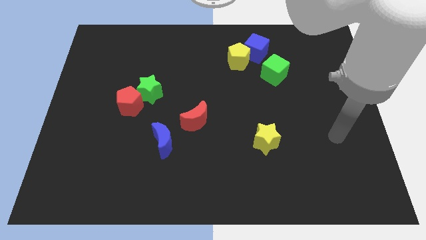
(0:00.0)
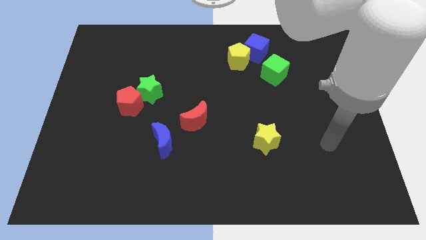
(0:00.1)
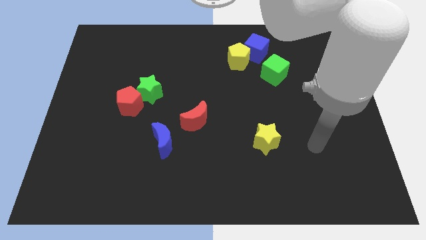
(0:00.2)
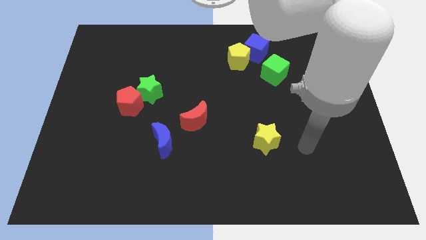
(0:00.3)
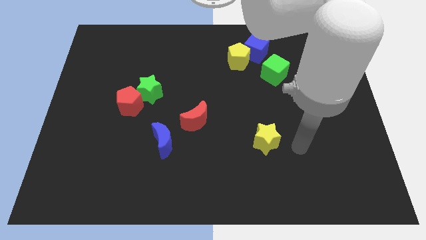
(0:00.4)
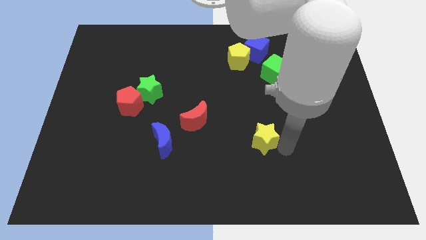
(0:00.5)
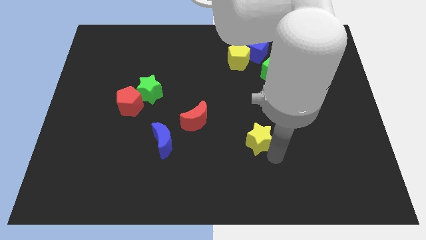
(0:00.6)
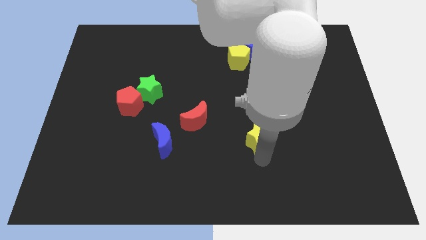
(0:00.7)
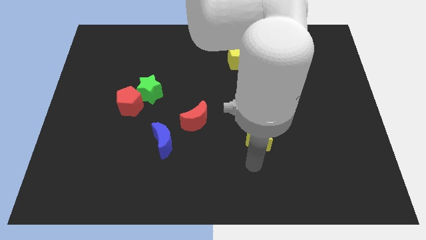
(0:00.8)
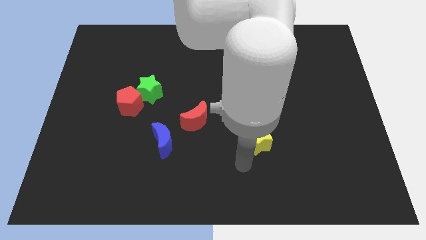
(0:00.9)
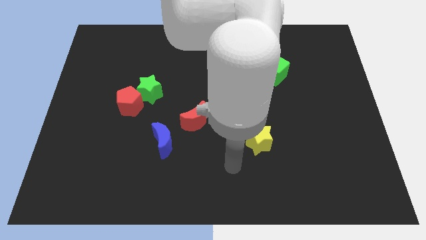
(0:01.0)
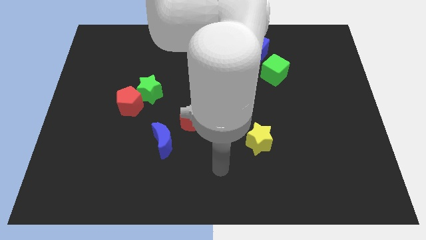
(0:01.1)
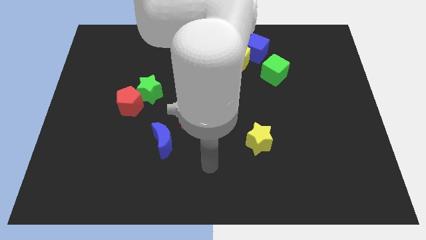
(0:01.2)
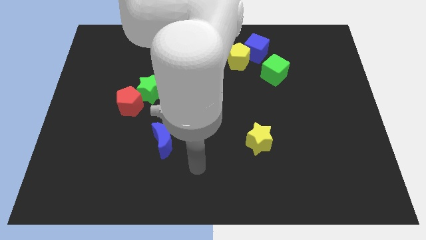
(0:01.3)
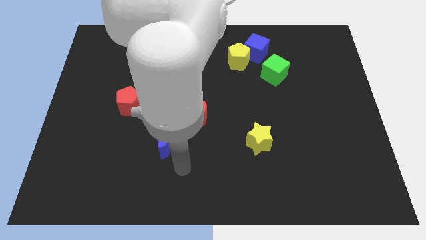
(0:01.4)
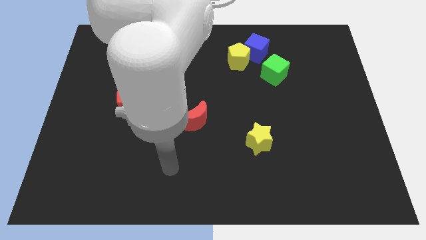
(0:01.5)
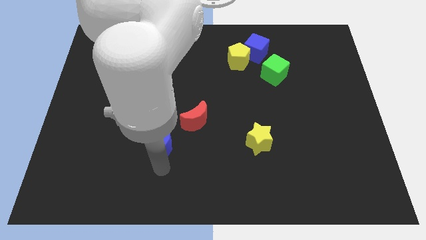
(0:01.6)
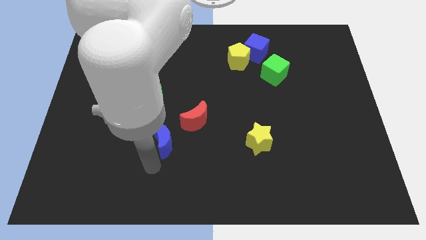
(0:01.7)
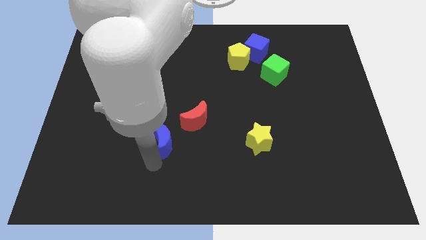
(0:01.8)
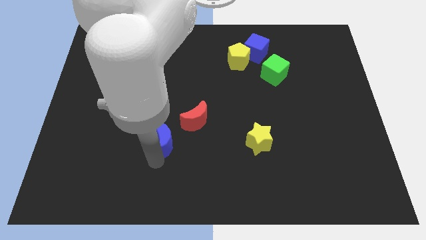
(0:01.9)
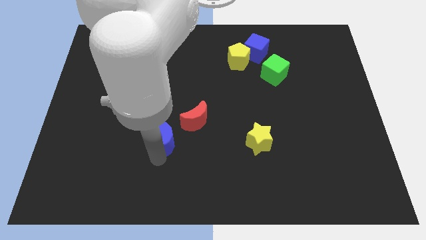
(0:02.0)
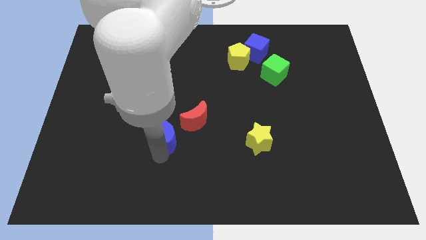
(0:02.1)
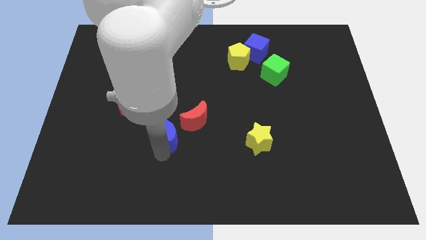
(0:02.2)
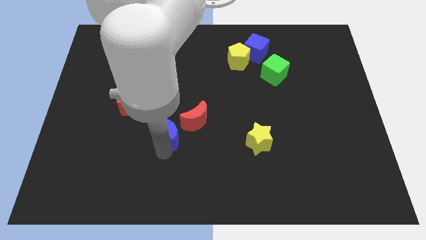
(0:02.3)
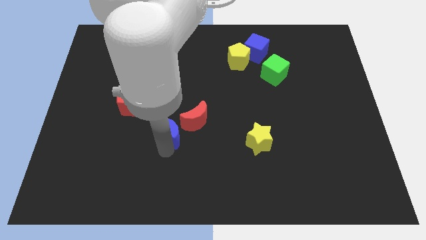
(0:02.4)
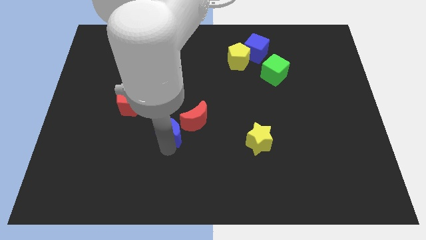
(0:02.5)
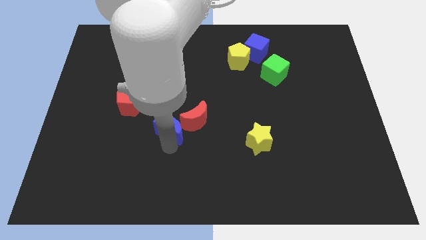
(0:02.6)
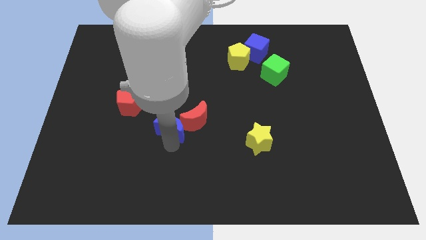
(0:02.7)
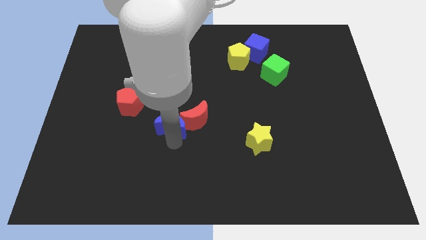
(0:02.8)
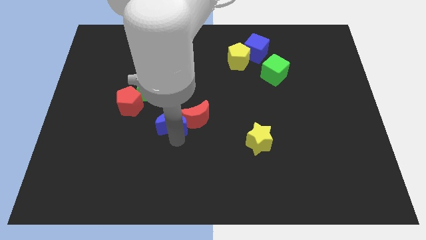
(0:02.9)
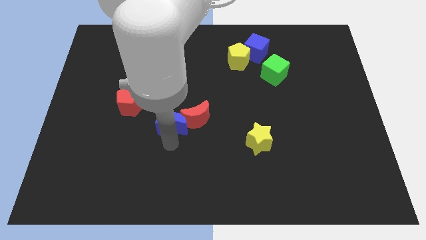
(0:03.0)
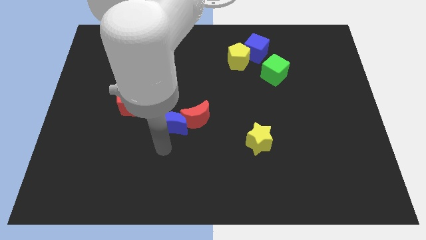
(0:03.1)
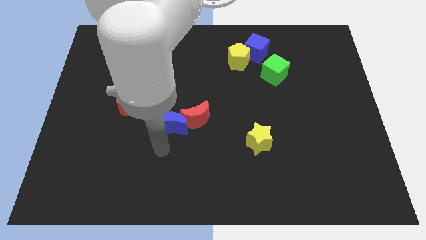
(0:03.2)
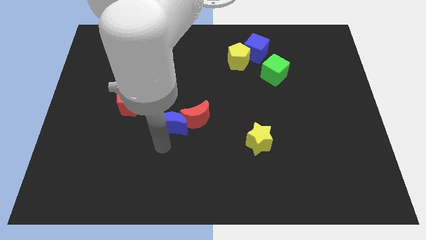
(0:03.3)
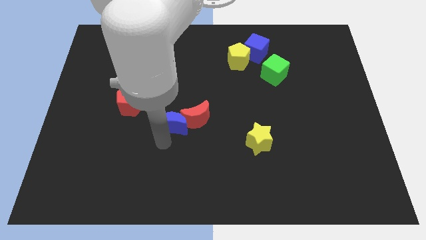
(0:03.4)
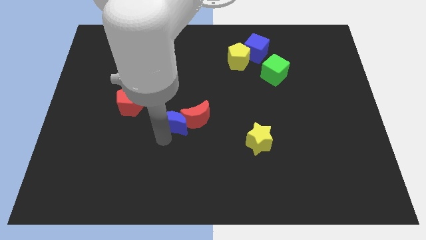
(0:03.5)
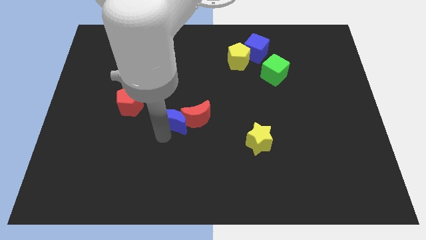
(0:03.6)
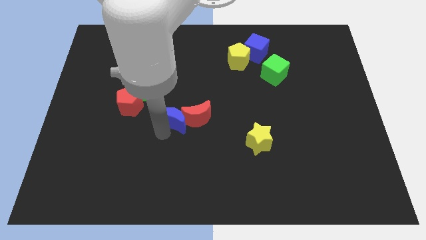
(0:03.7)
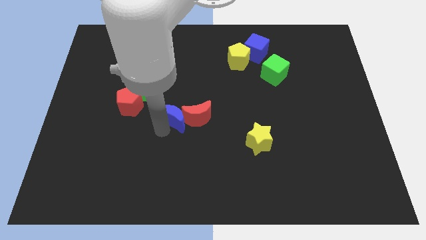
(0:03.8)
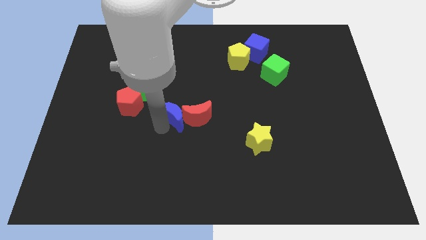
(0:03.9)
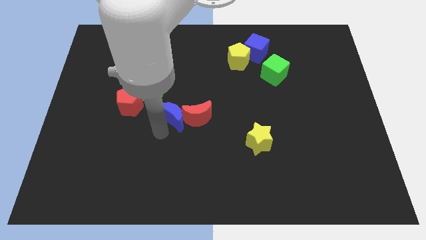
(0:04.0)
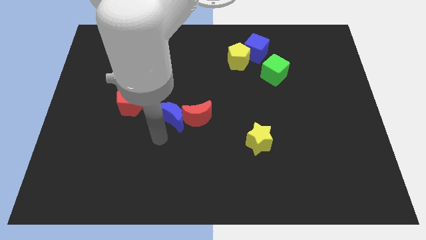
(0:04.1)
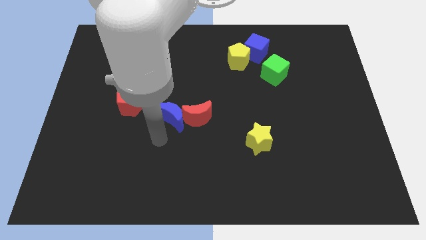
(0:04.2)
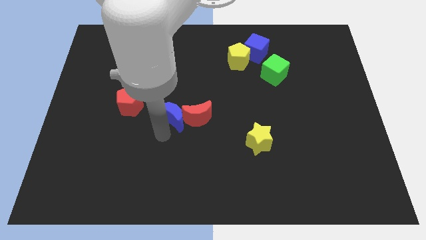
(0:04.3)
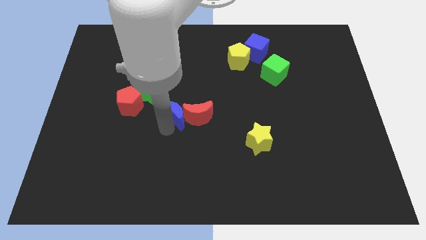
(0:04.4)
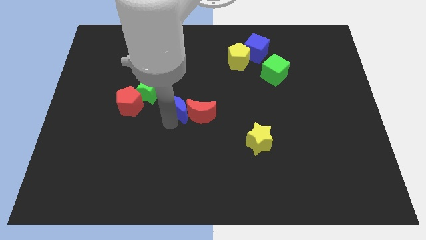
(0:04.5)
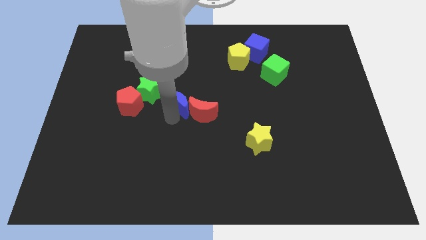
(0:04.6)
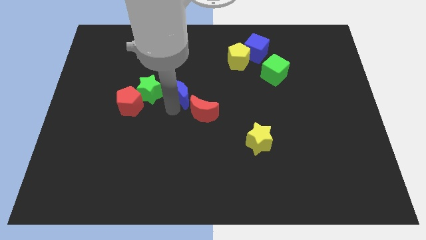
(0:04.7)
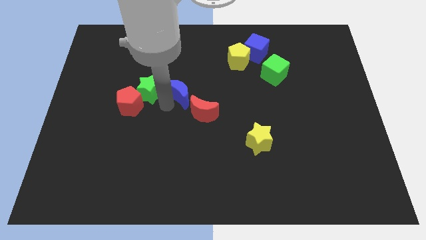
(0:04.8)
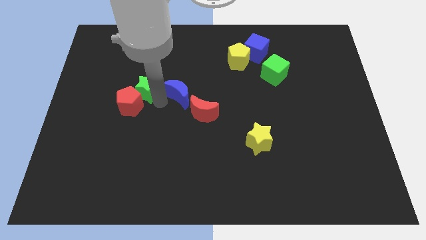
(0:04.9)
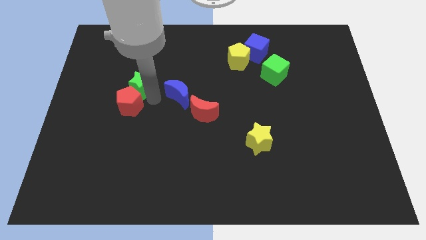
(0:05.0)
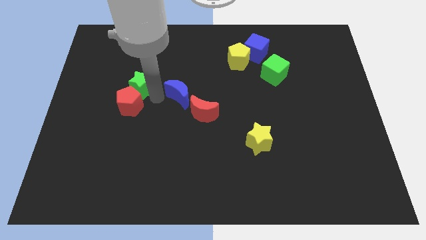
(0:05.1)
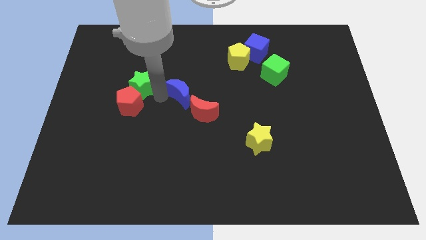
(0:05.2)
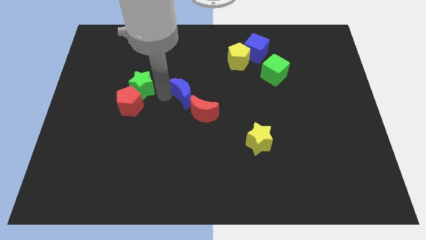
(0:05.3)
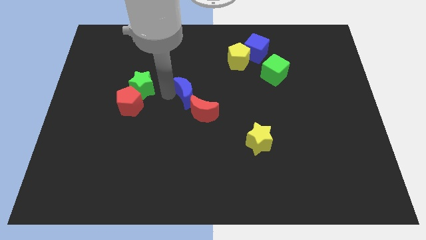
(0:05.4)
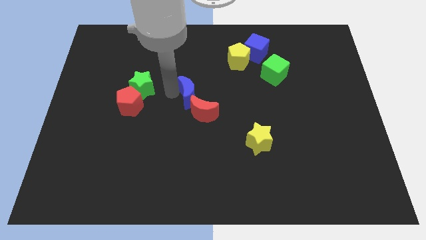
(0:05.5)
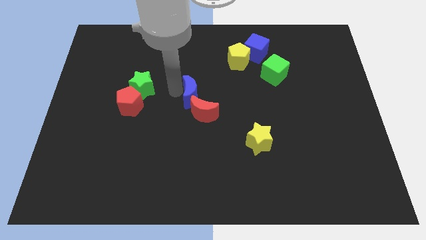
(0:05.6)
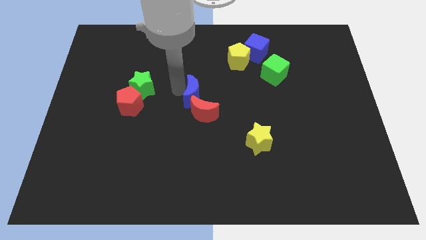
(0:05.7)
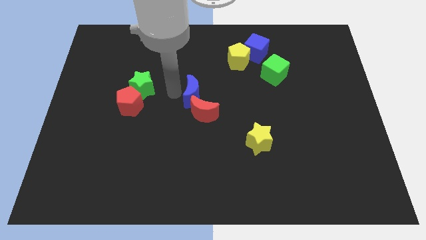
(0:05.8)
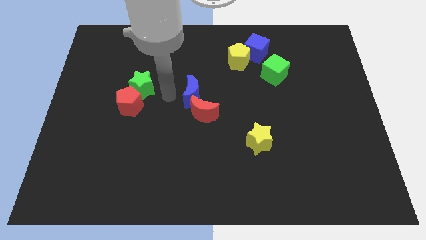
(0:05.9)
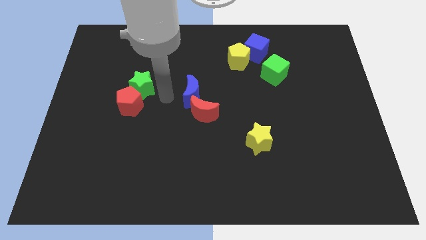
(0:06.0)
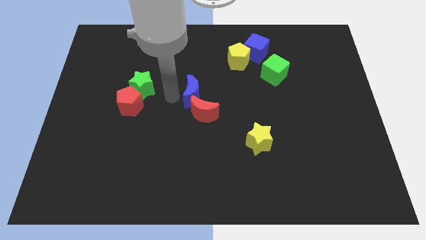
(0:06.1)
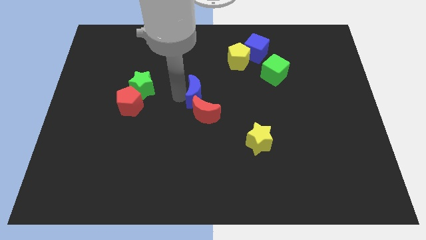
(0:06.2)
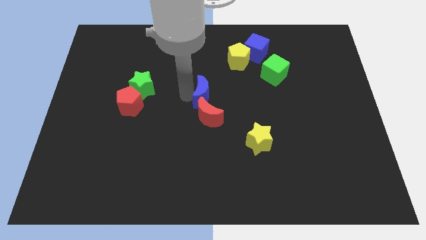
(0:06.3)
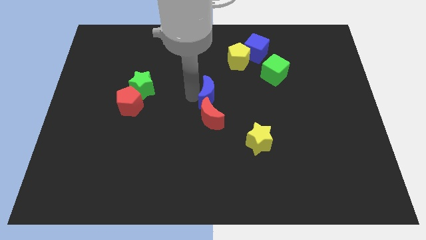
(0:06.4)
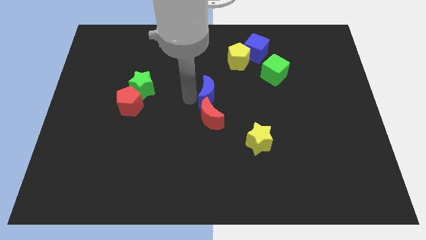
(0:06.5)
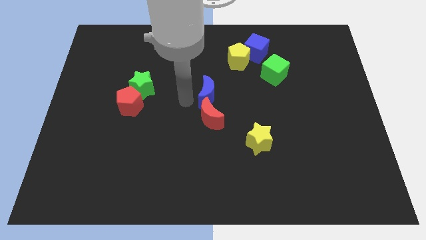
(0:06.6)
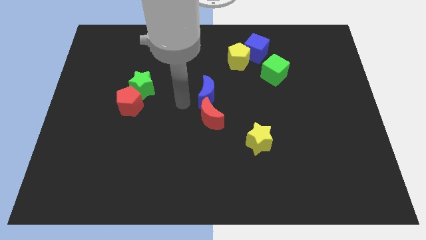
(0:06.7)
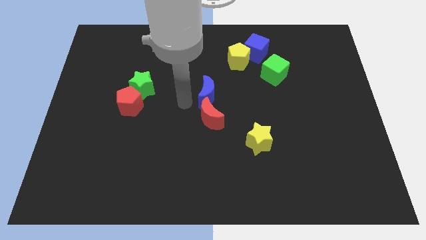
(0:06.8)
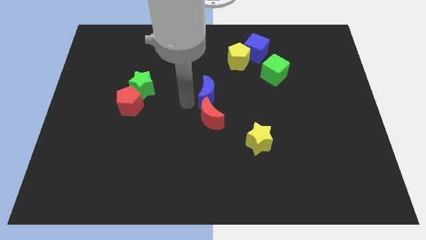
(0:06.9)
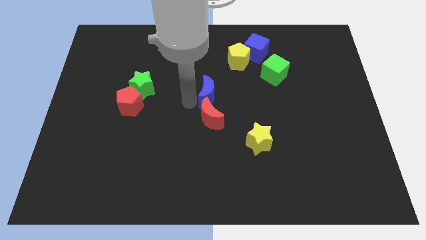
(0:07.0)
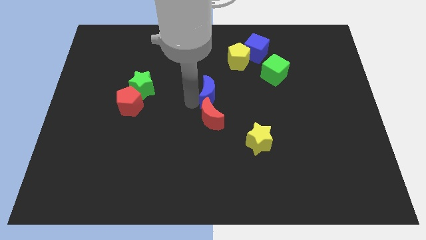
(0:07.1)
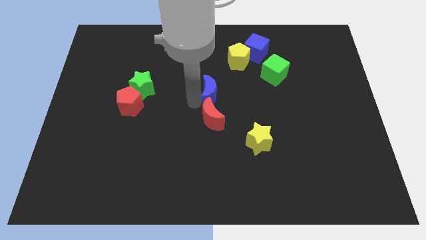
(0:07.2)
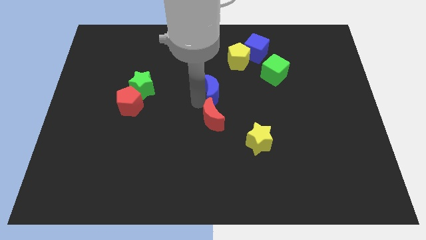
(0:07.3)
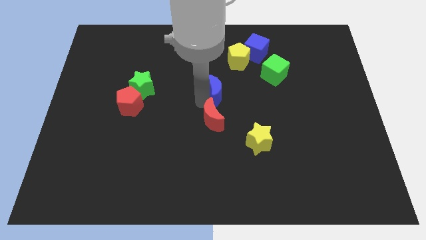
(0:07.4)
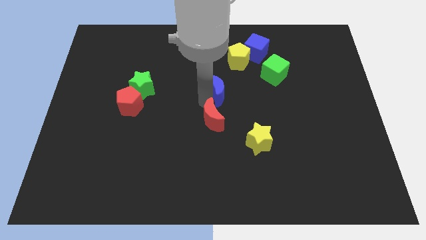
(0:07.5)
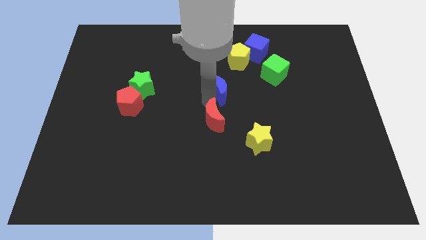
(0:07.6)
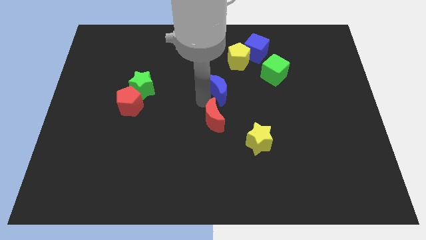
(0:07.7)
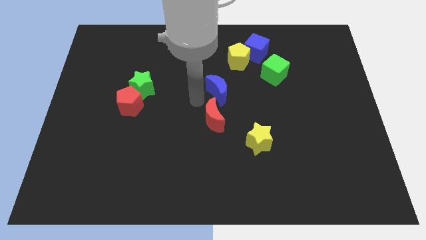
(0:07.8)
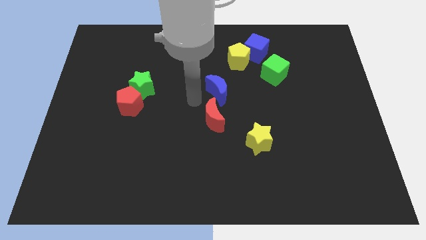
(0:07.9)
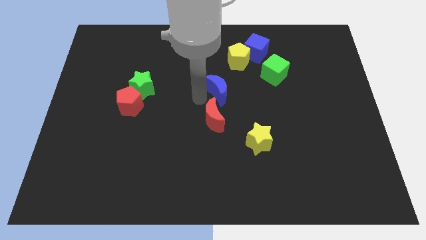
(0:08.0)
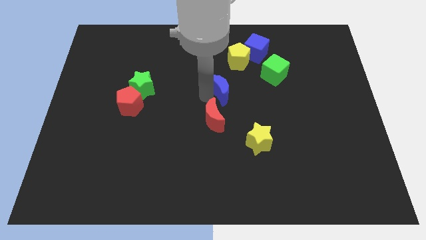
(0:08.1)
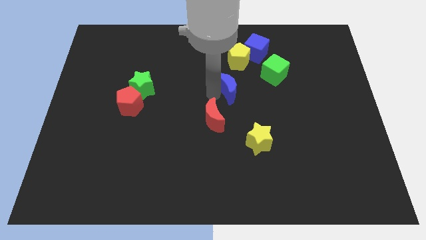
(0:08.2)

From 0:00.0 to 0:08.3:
move the blue moon up and right diagonally
